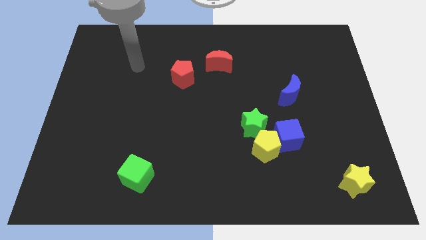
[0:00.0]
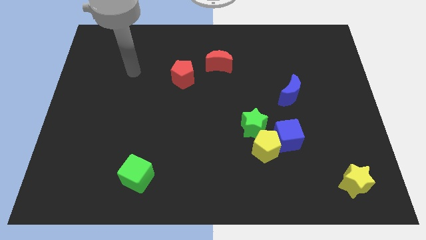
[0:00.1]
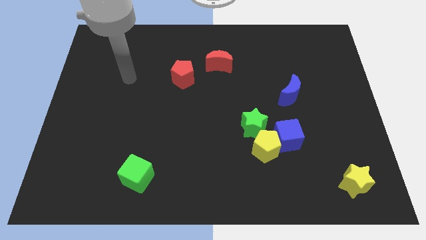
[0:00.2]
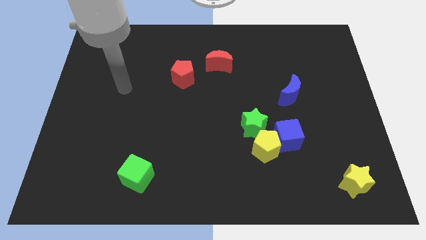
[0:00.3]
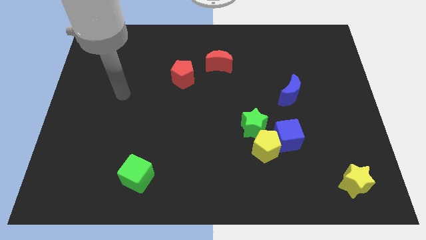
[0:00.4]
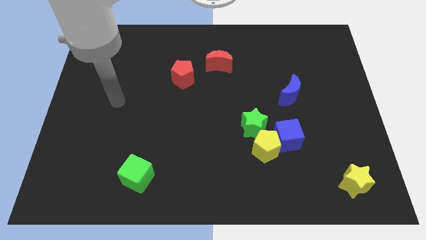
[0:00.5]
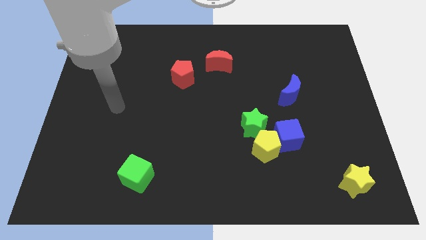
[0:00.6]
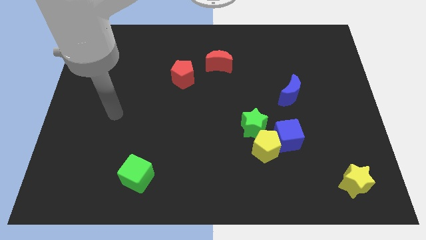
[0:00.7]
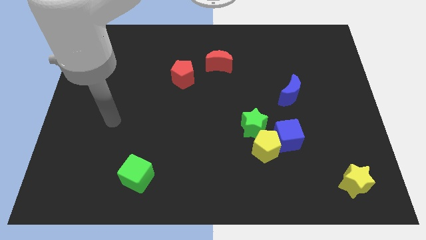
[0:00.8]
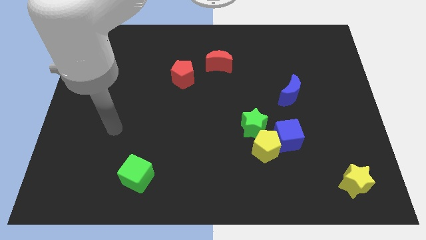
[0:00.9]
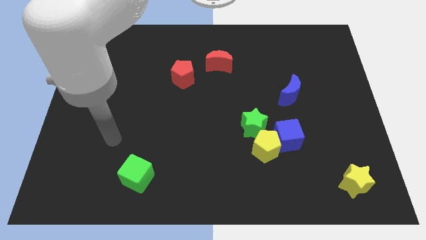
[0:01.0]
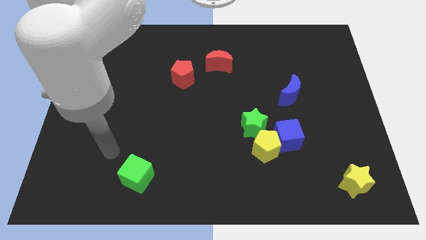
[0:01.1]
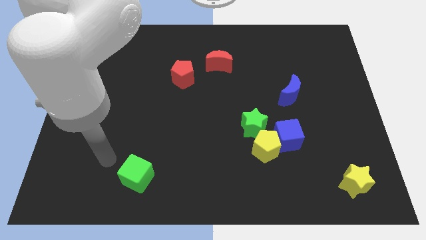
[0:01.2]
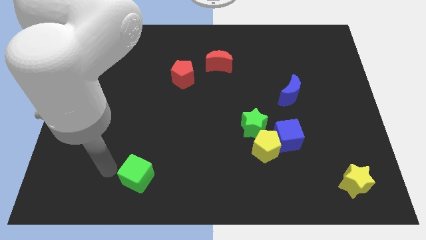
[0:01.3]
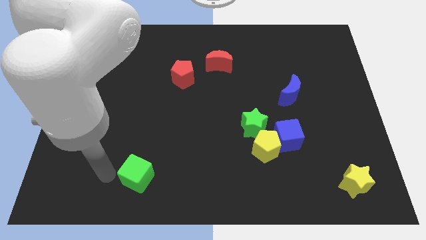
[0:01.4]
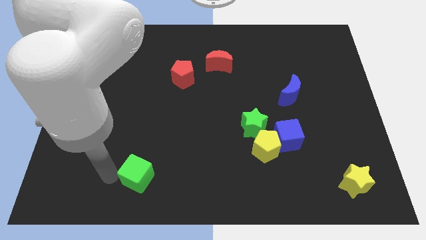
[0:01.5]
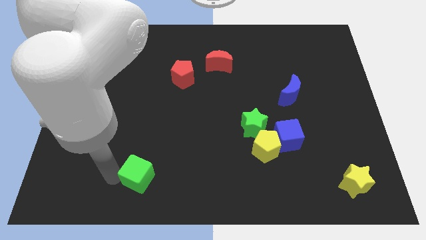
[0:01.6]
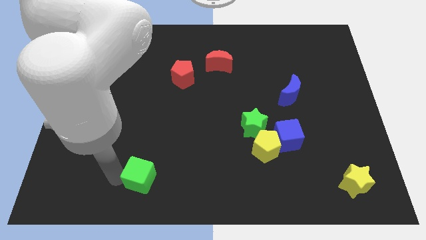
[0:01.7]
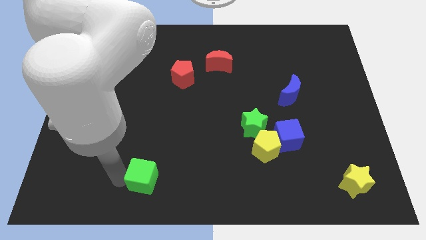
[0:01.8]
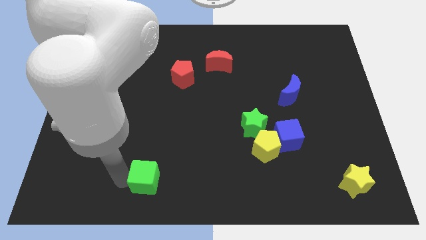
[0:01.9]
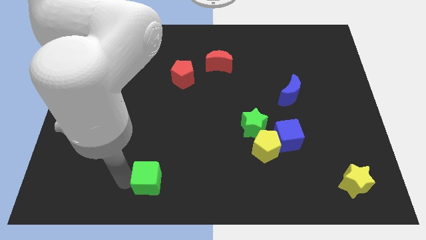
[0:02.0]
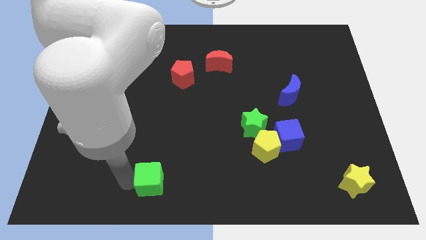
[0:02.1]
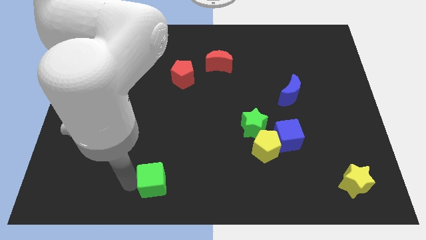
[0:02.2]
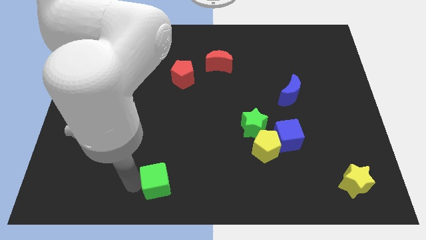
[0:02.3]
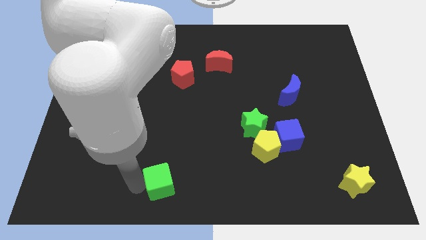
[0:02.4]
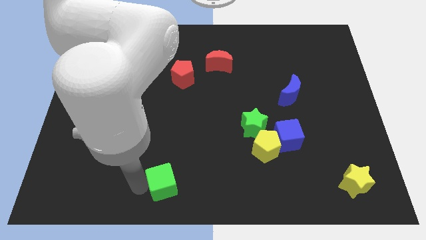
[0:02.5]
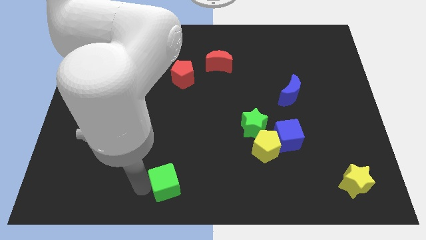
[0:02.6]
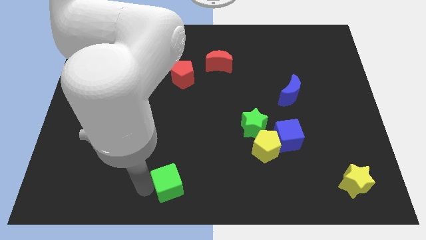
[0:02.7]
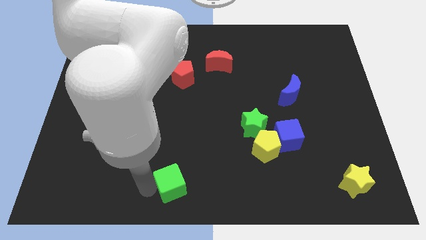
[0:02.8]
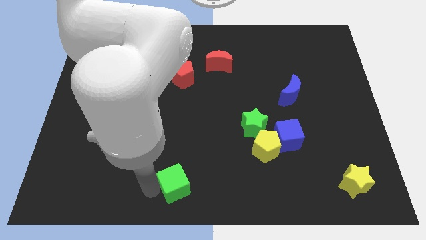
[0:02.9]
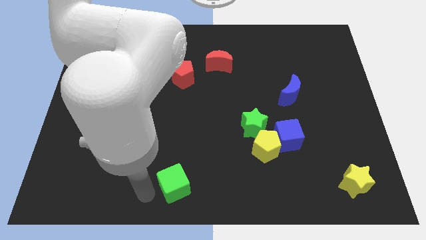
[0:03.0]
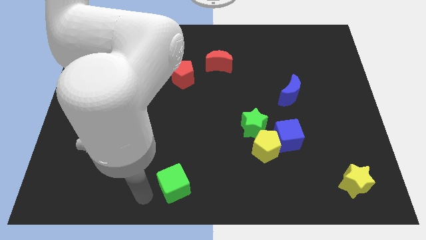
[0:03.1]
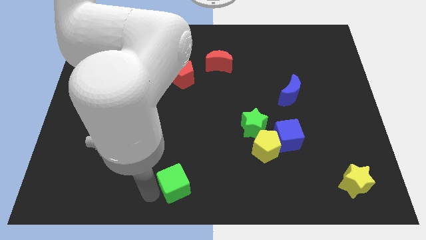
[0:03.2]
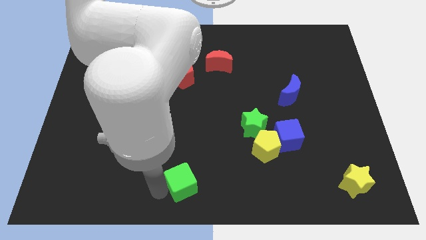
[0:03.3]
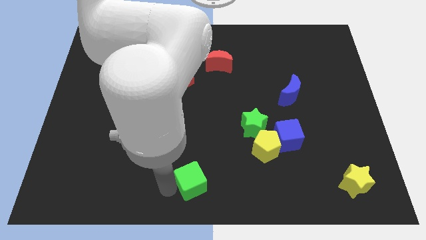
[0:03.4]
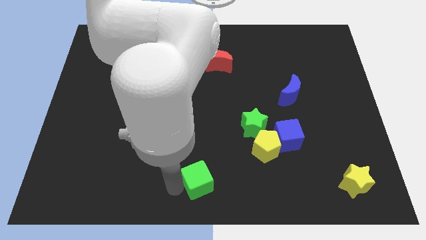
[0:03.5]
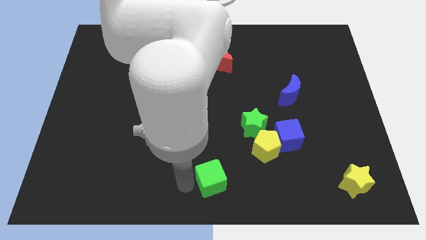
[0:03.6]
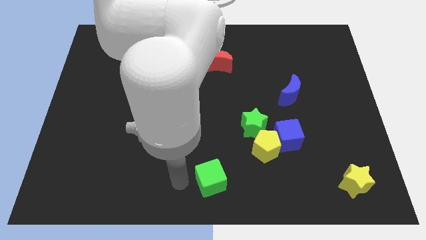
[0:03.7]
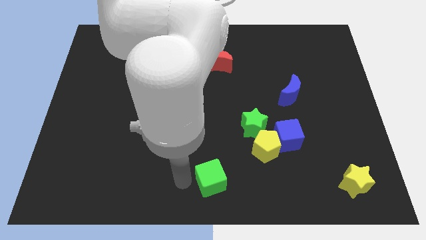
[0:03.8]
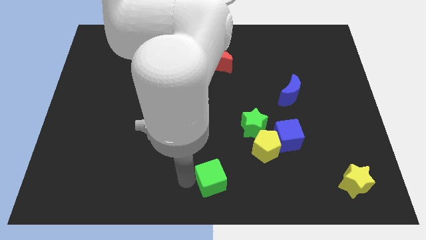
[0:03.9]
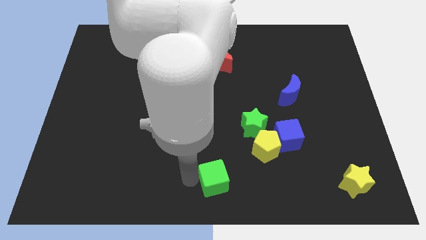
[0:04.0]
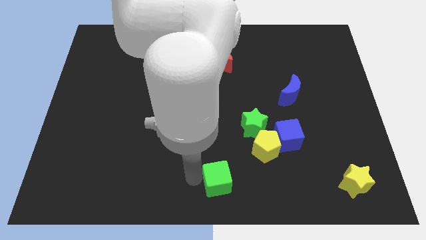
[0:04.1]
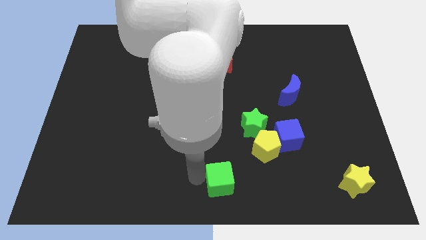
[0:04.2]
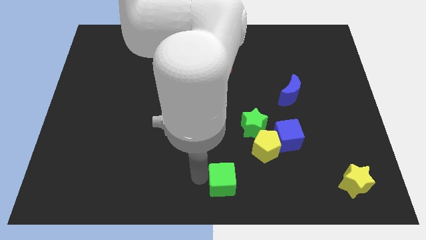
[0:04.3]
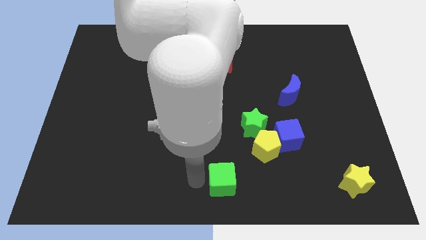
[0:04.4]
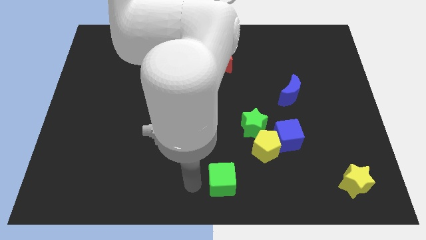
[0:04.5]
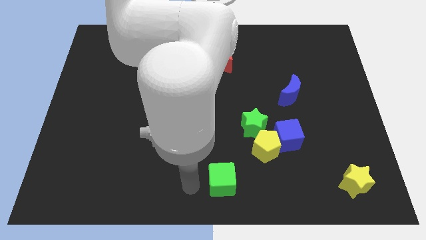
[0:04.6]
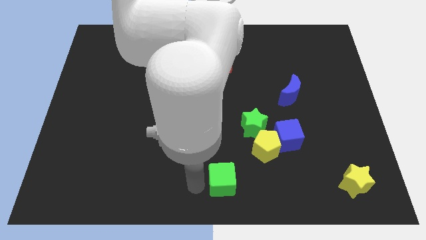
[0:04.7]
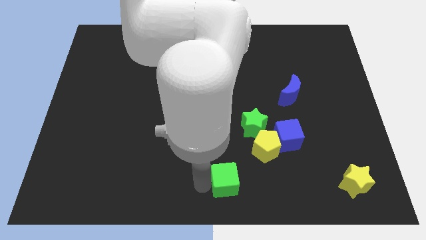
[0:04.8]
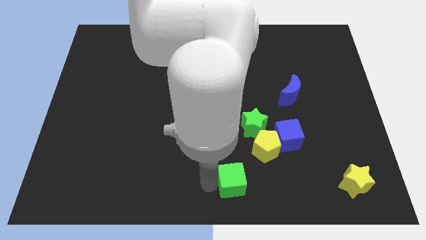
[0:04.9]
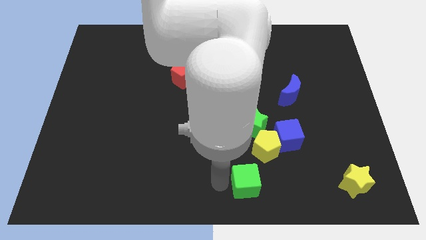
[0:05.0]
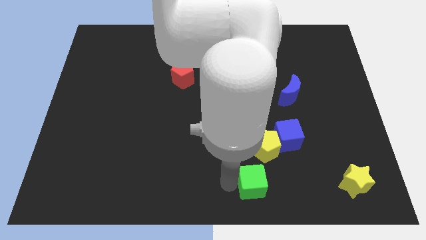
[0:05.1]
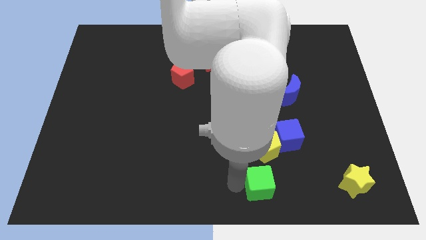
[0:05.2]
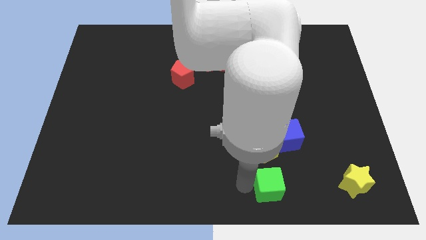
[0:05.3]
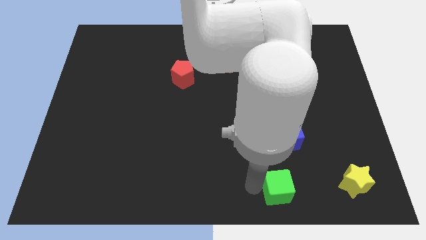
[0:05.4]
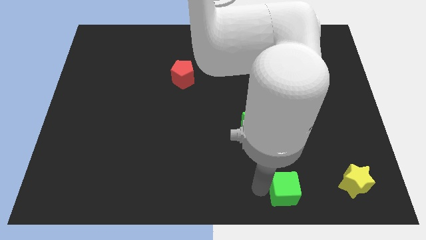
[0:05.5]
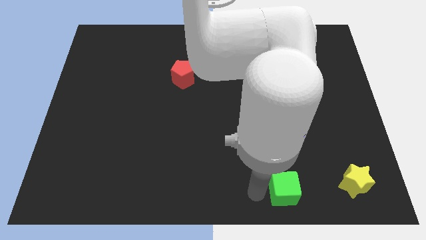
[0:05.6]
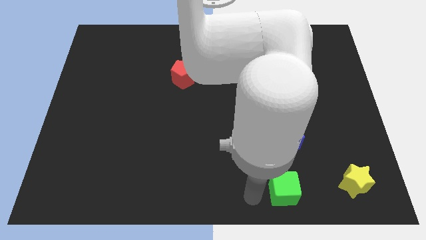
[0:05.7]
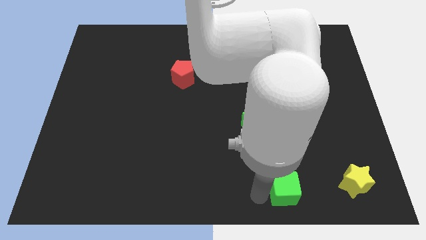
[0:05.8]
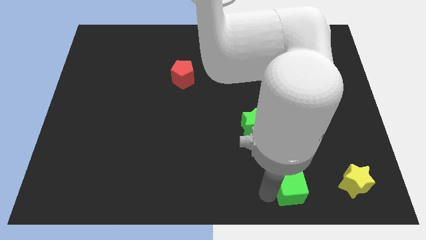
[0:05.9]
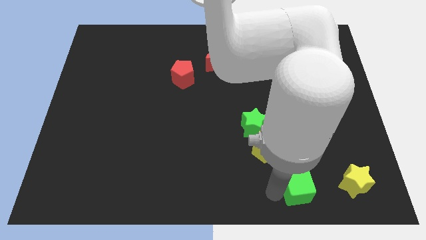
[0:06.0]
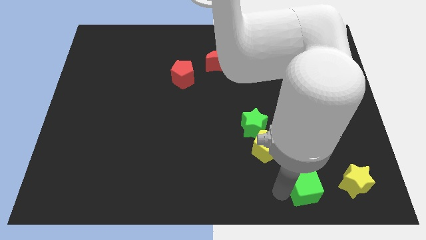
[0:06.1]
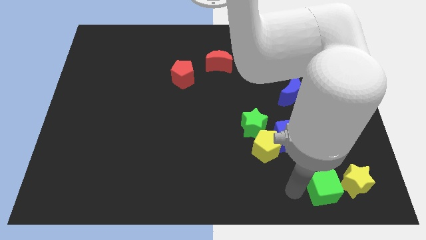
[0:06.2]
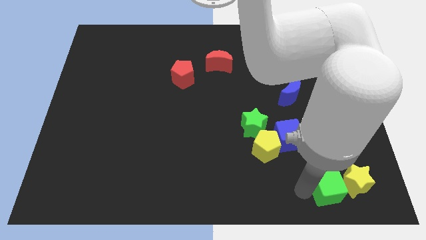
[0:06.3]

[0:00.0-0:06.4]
put the green cube close to the yellow star

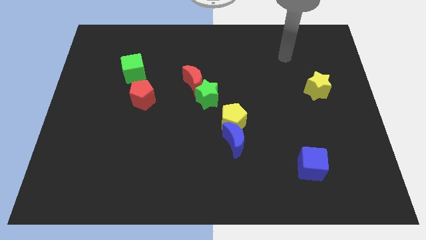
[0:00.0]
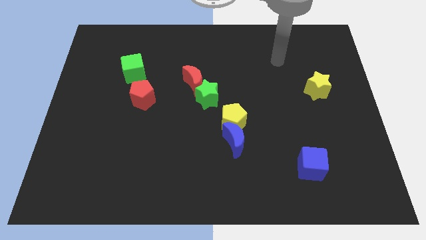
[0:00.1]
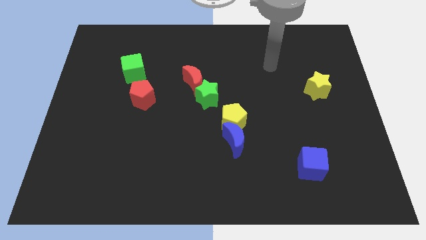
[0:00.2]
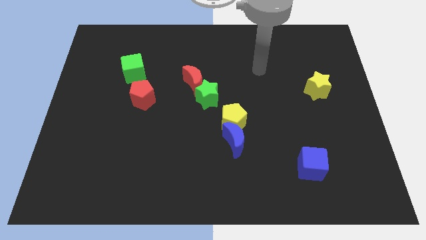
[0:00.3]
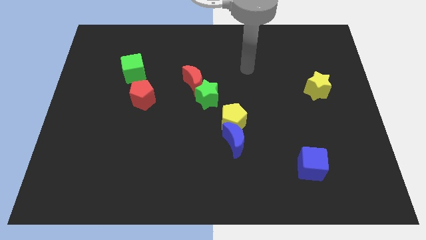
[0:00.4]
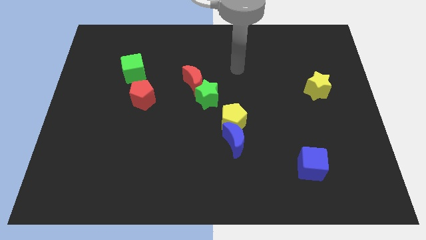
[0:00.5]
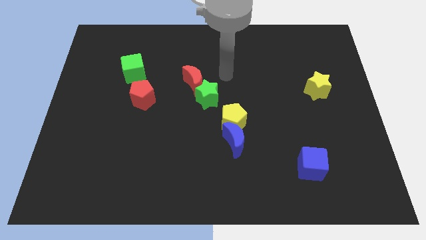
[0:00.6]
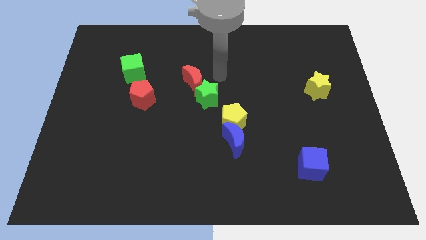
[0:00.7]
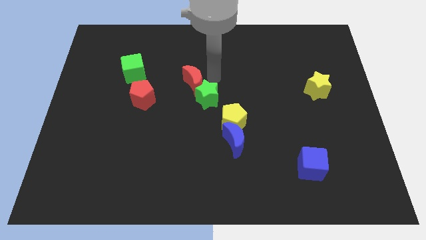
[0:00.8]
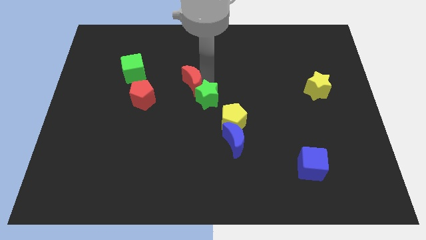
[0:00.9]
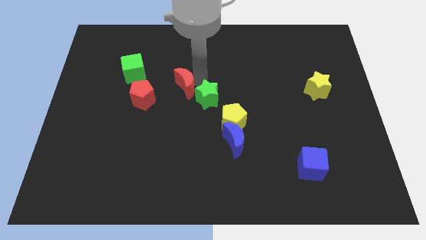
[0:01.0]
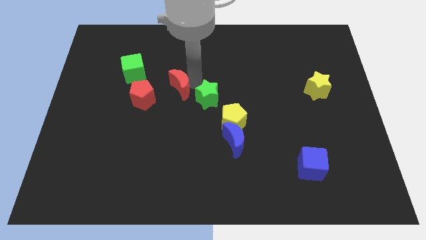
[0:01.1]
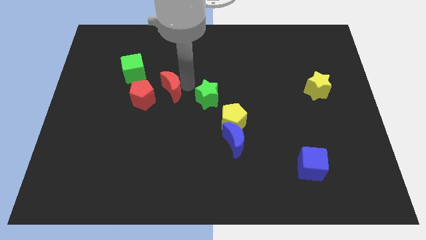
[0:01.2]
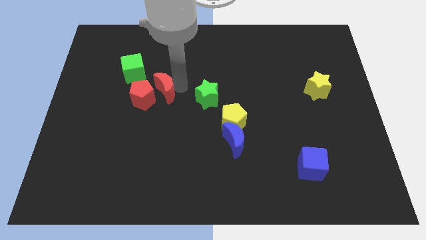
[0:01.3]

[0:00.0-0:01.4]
slide the red moon close to the red pentagon

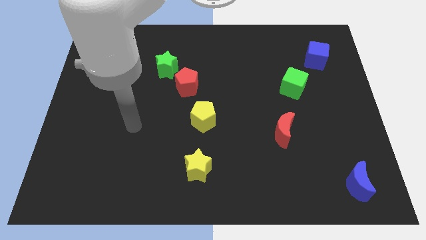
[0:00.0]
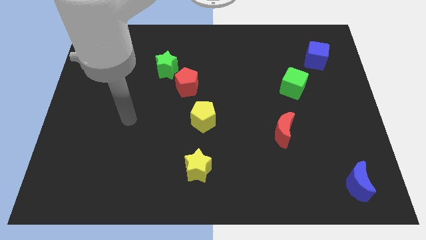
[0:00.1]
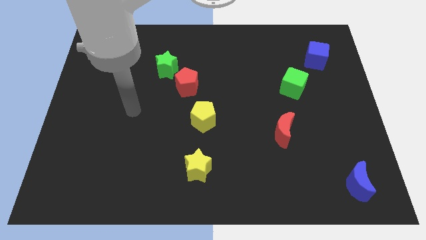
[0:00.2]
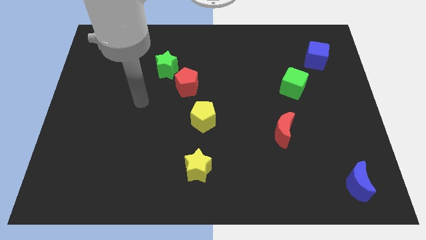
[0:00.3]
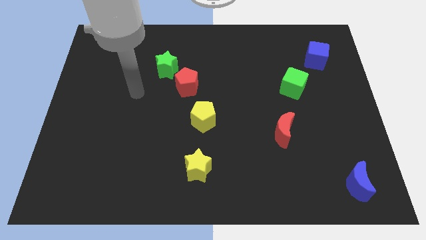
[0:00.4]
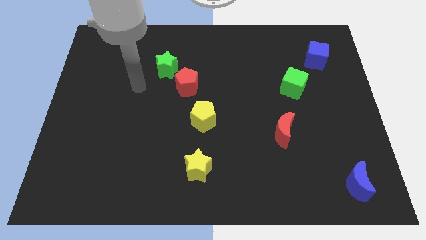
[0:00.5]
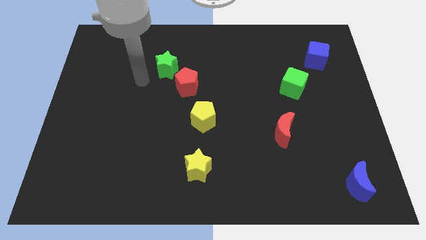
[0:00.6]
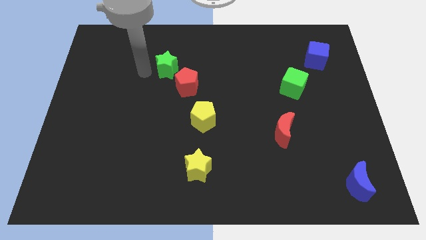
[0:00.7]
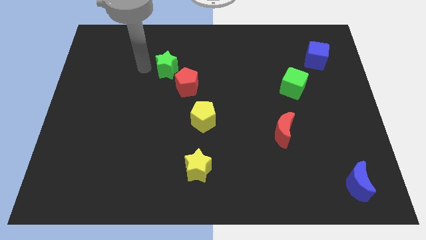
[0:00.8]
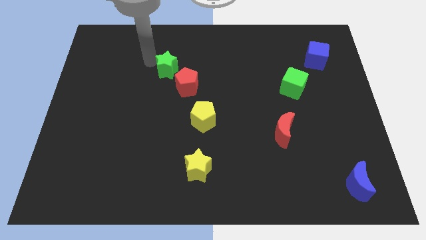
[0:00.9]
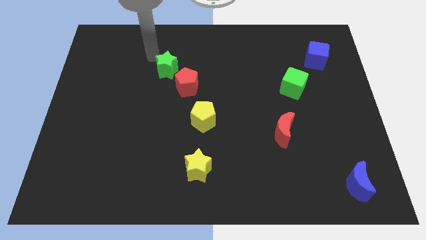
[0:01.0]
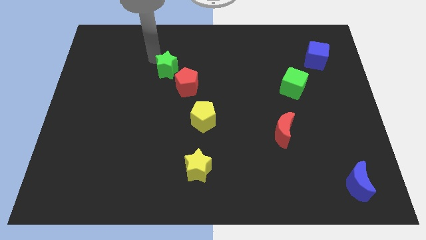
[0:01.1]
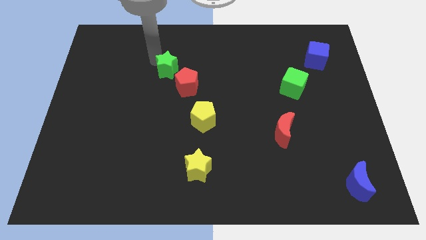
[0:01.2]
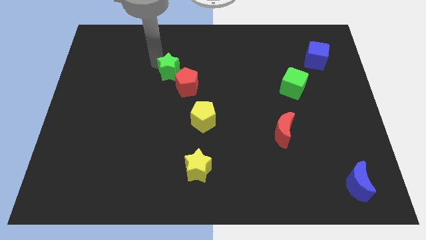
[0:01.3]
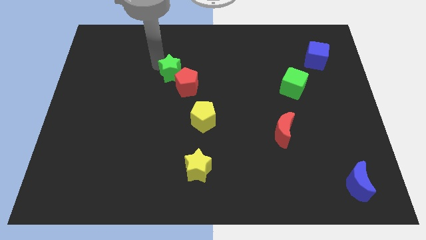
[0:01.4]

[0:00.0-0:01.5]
put the green star to the red pentagon
